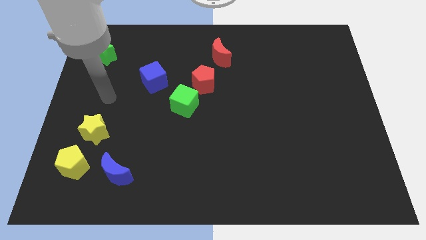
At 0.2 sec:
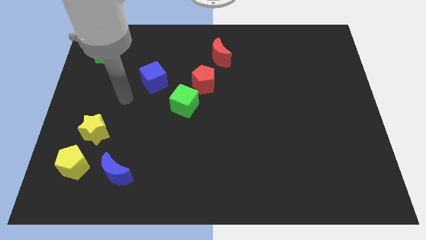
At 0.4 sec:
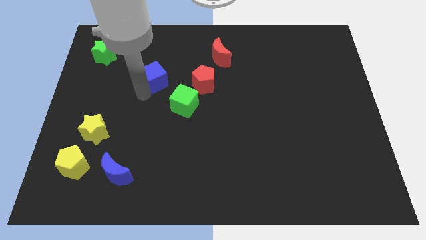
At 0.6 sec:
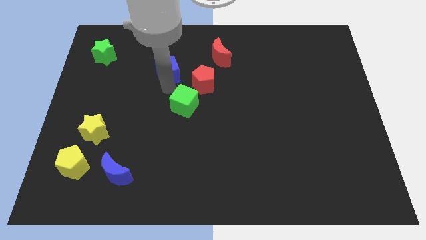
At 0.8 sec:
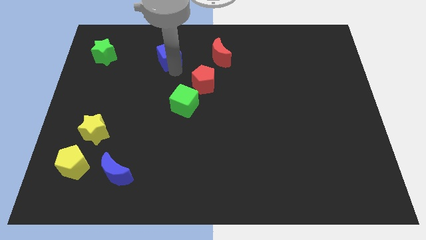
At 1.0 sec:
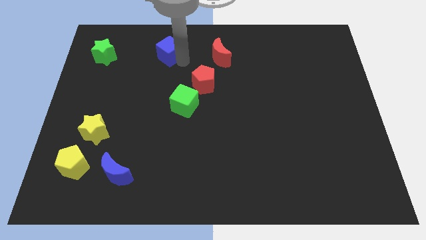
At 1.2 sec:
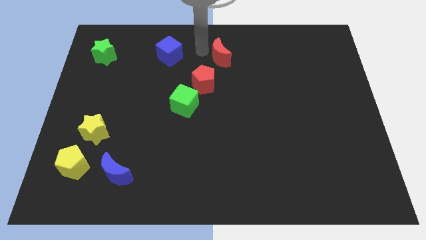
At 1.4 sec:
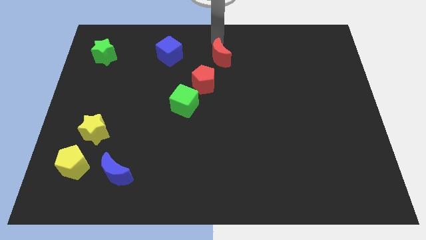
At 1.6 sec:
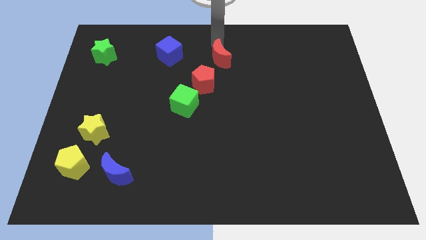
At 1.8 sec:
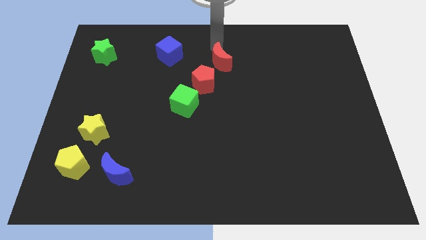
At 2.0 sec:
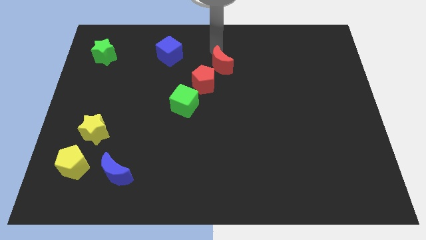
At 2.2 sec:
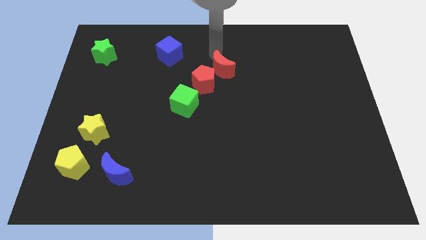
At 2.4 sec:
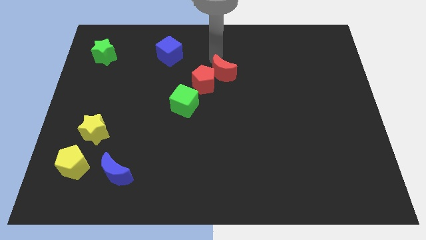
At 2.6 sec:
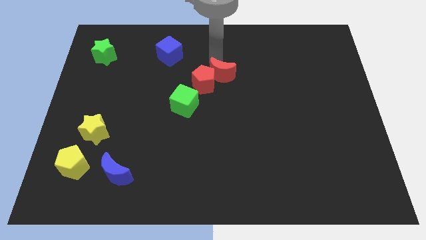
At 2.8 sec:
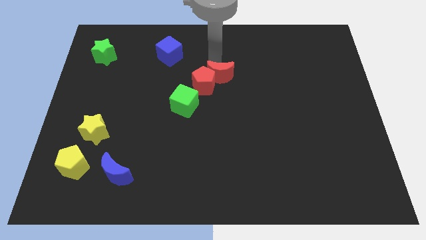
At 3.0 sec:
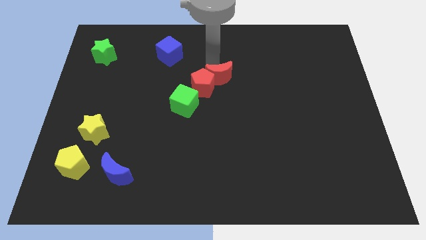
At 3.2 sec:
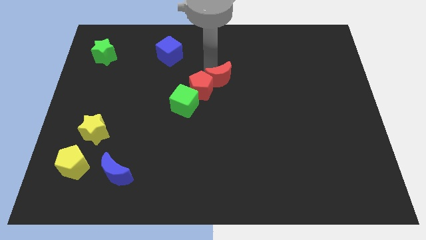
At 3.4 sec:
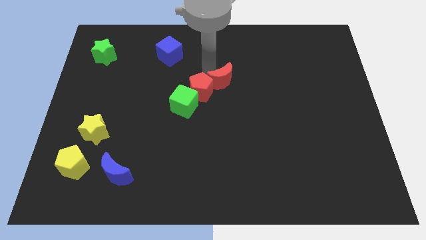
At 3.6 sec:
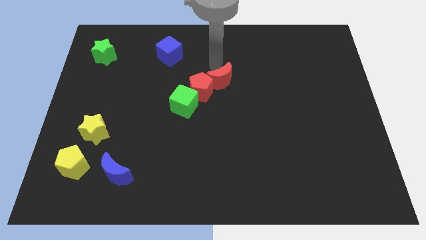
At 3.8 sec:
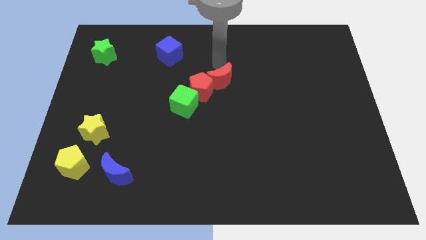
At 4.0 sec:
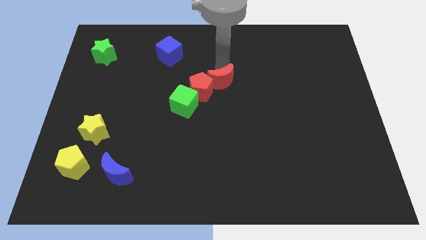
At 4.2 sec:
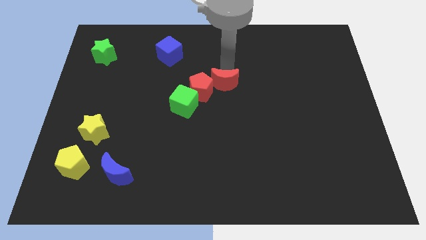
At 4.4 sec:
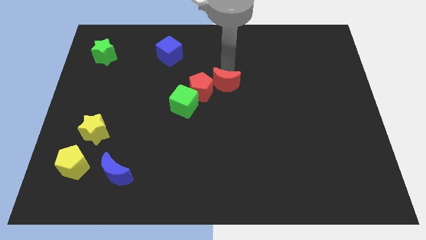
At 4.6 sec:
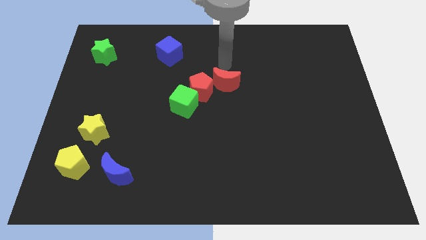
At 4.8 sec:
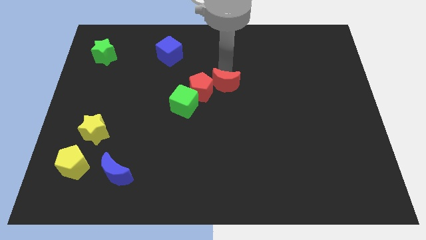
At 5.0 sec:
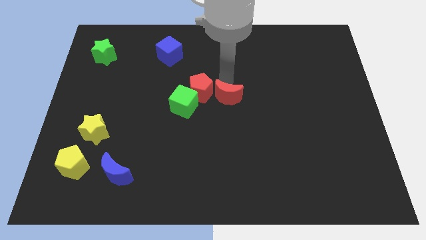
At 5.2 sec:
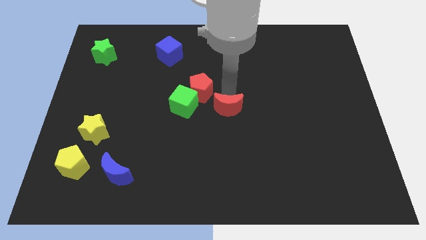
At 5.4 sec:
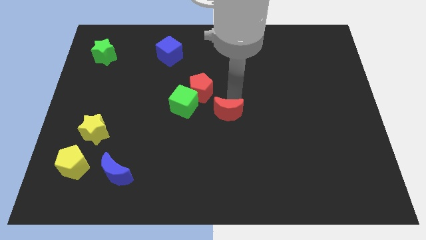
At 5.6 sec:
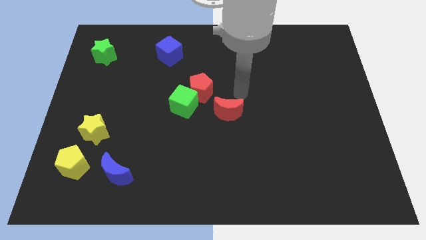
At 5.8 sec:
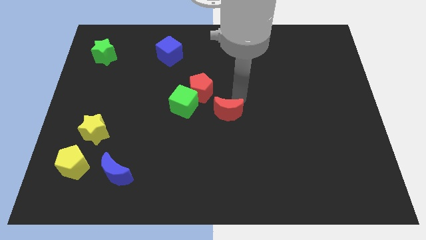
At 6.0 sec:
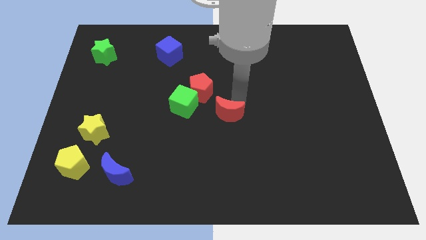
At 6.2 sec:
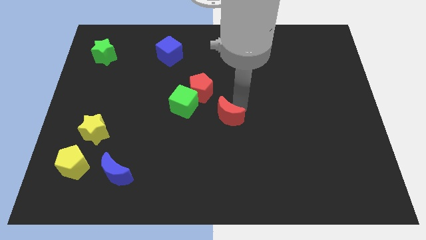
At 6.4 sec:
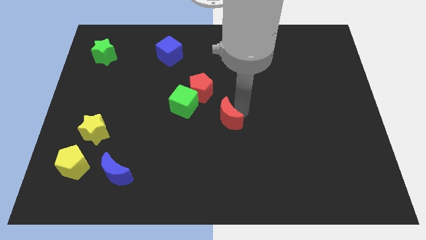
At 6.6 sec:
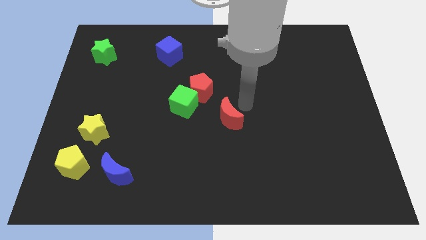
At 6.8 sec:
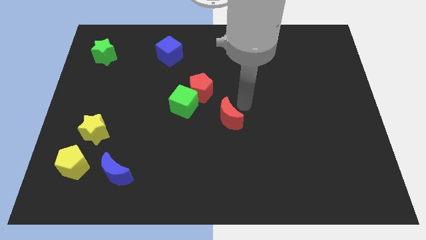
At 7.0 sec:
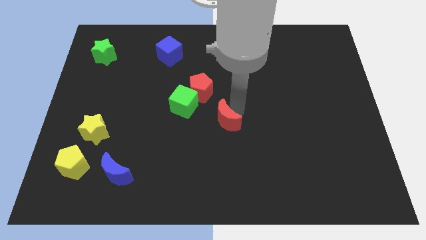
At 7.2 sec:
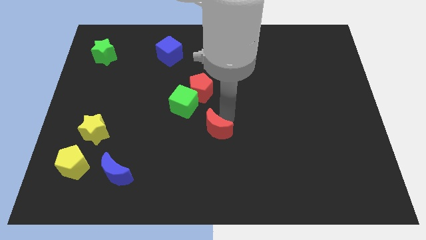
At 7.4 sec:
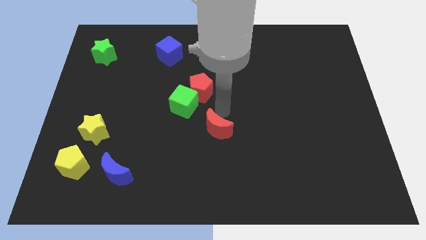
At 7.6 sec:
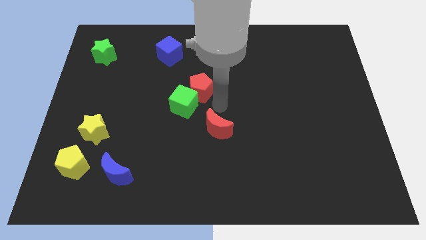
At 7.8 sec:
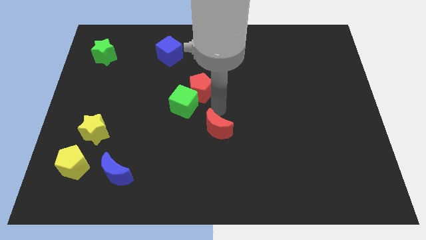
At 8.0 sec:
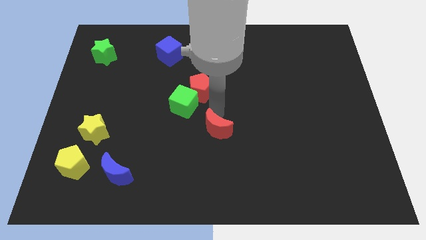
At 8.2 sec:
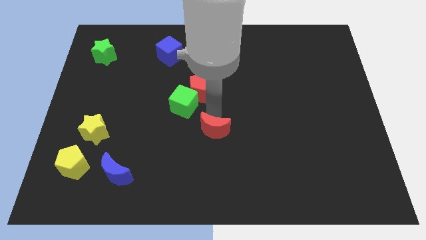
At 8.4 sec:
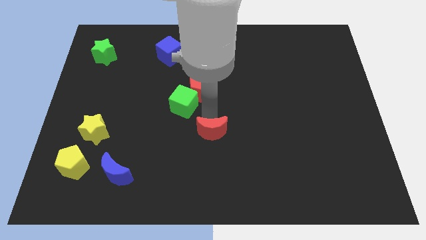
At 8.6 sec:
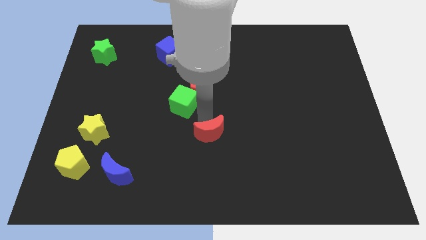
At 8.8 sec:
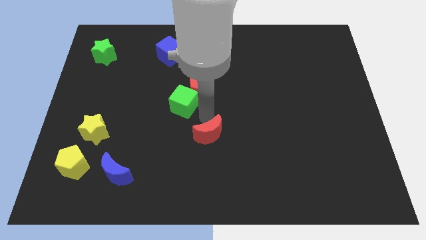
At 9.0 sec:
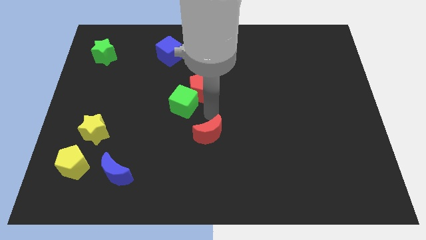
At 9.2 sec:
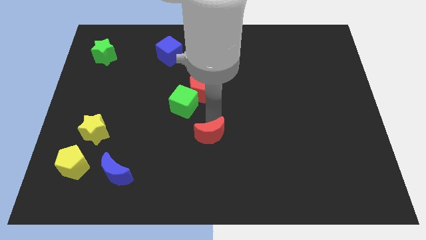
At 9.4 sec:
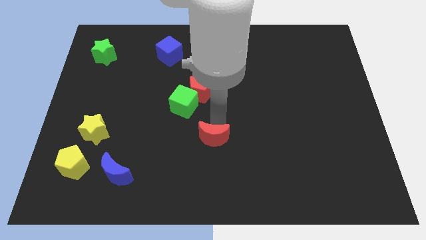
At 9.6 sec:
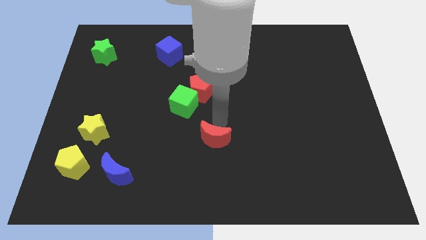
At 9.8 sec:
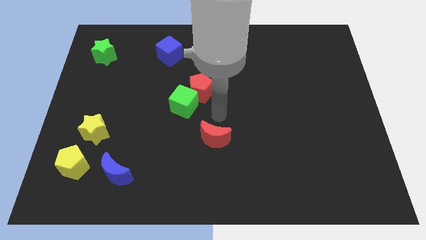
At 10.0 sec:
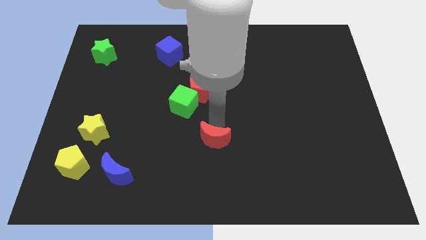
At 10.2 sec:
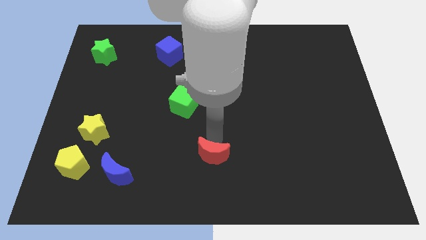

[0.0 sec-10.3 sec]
put the red moon to the bottom

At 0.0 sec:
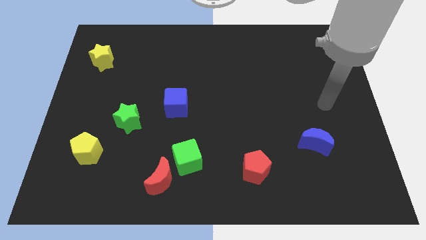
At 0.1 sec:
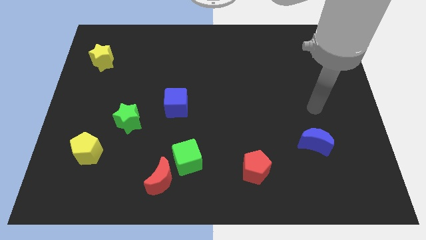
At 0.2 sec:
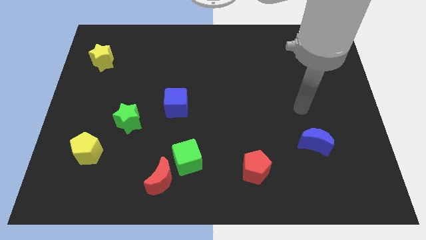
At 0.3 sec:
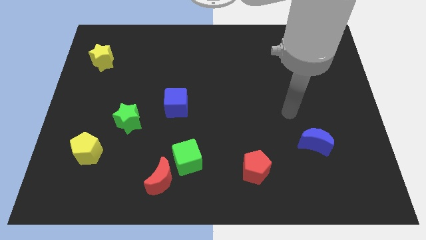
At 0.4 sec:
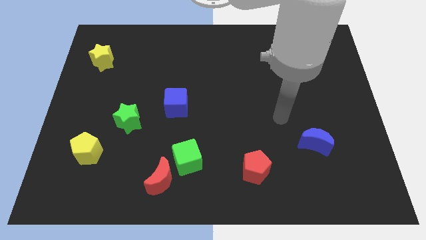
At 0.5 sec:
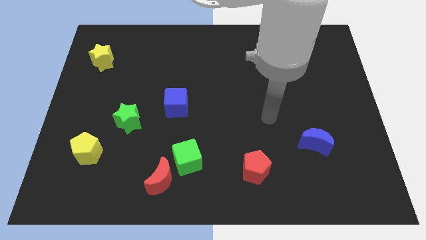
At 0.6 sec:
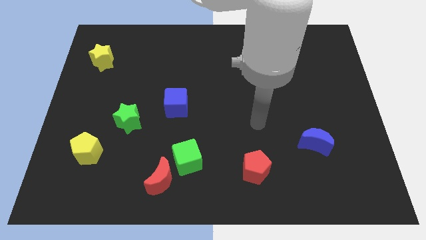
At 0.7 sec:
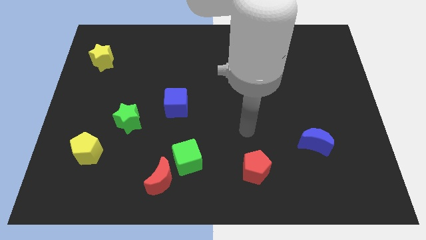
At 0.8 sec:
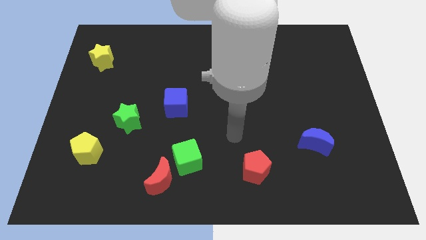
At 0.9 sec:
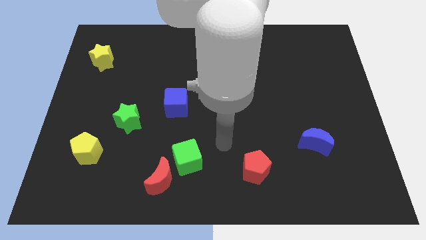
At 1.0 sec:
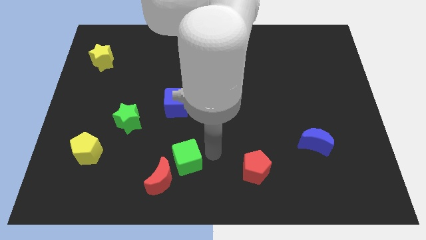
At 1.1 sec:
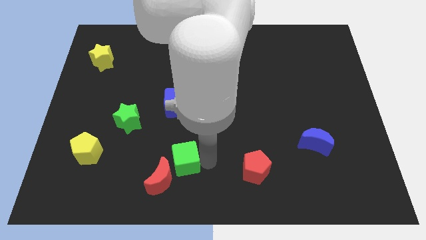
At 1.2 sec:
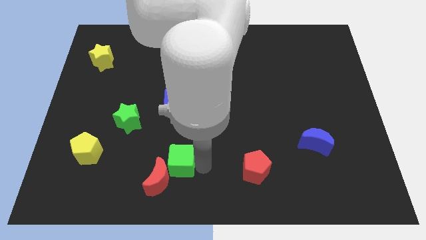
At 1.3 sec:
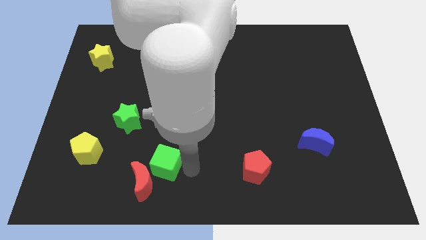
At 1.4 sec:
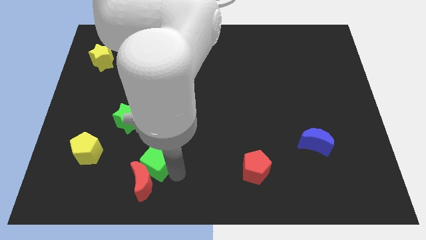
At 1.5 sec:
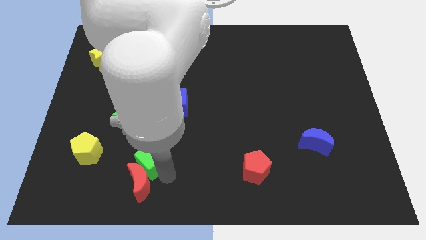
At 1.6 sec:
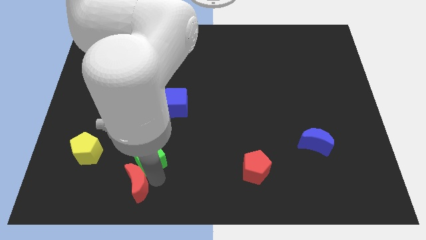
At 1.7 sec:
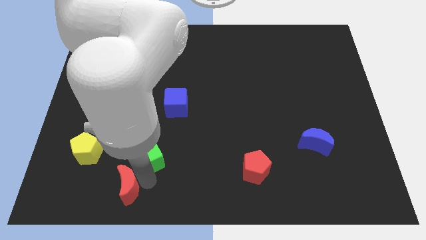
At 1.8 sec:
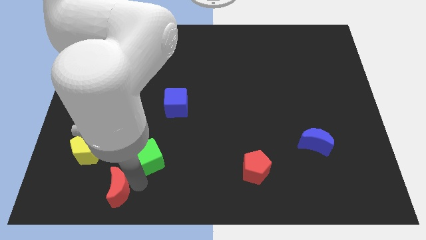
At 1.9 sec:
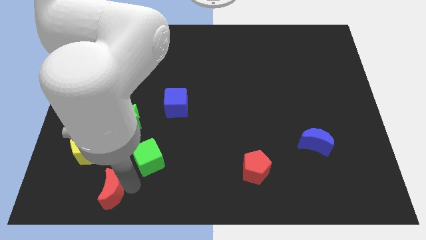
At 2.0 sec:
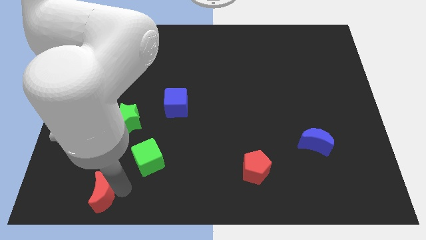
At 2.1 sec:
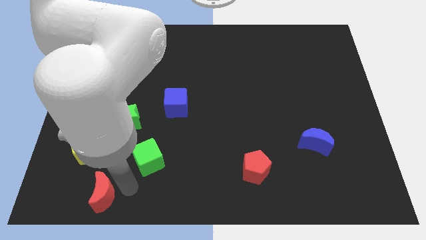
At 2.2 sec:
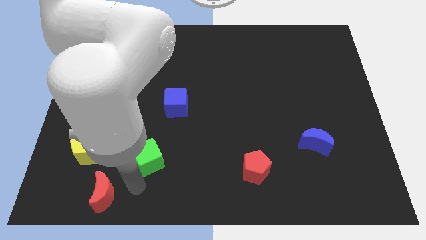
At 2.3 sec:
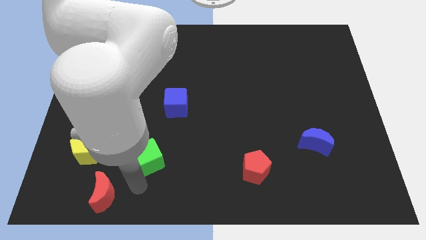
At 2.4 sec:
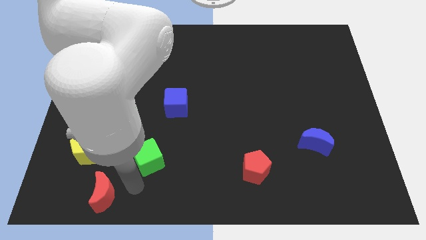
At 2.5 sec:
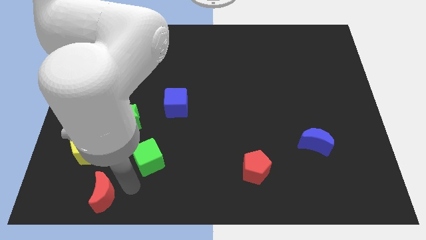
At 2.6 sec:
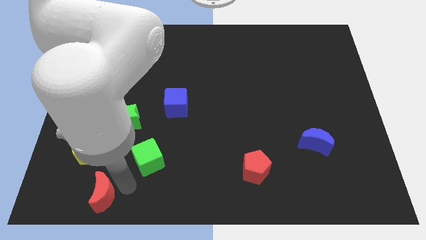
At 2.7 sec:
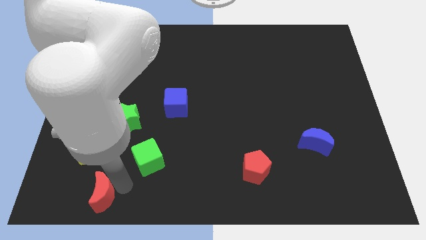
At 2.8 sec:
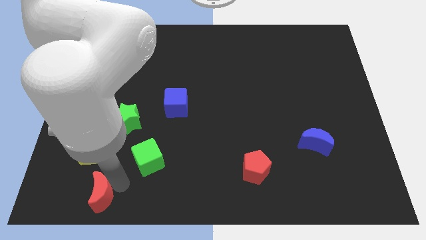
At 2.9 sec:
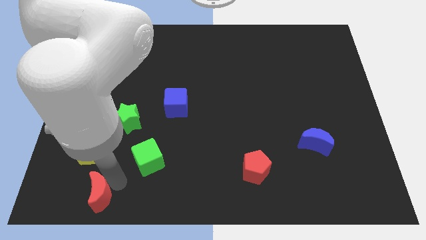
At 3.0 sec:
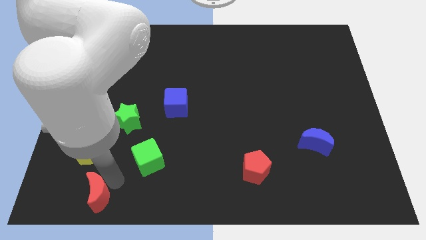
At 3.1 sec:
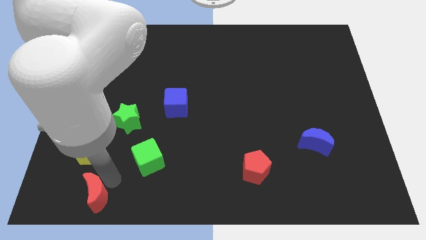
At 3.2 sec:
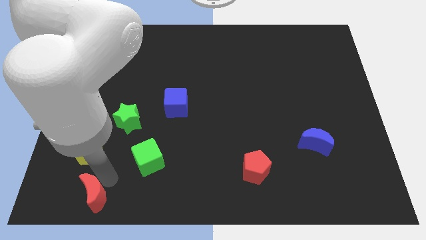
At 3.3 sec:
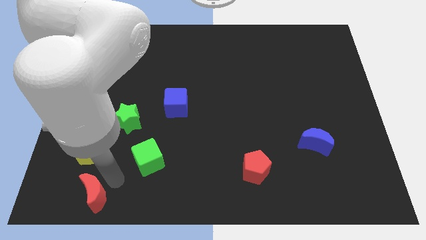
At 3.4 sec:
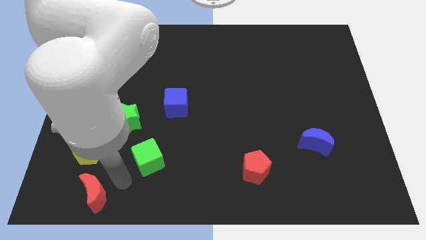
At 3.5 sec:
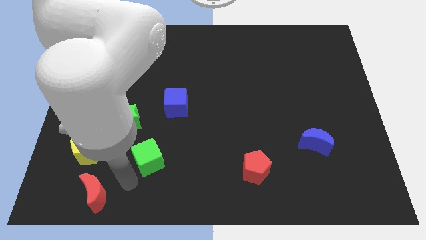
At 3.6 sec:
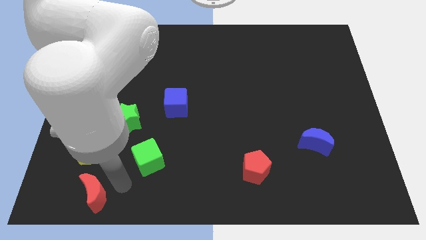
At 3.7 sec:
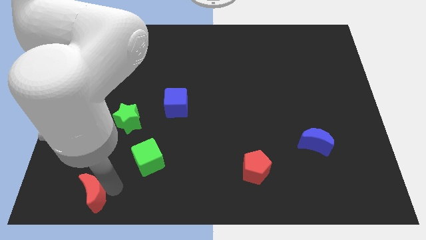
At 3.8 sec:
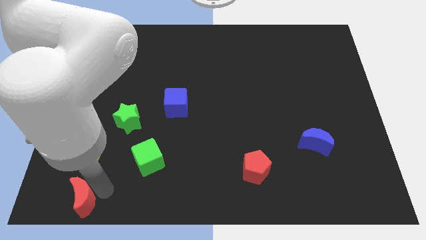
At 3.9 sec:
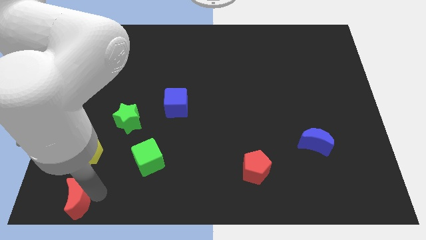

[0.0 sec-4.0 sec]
move the red moon to the lower left corner
